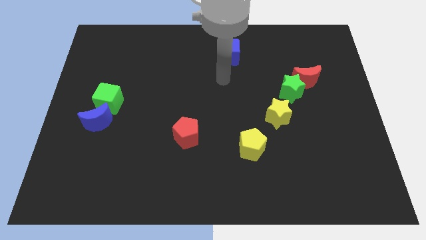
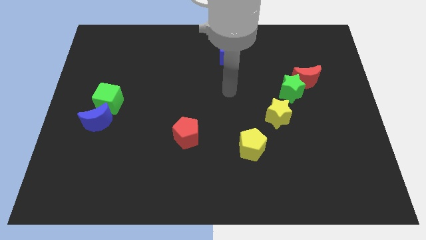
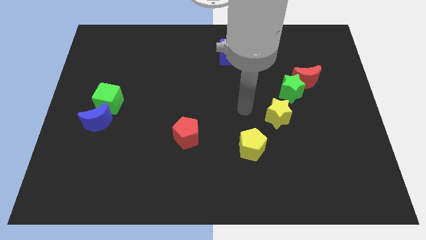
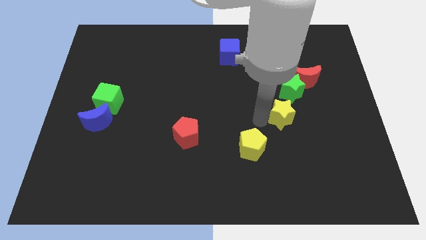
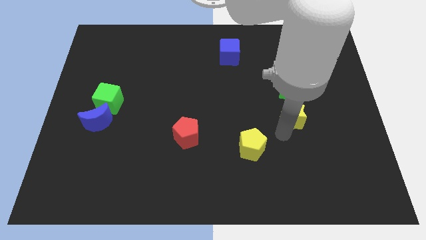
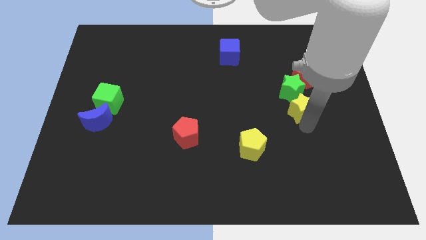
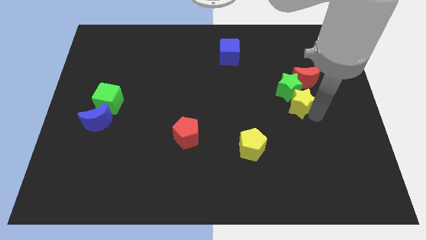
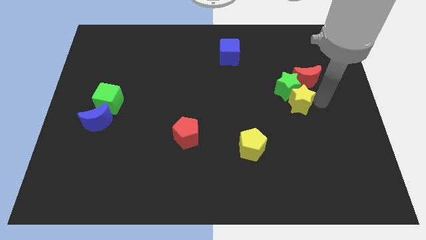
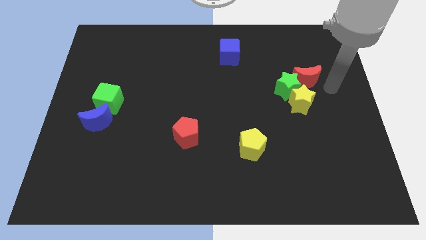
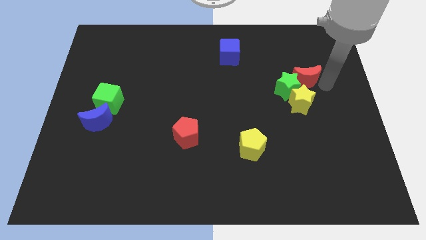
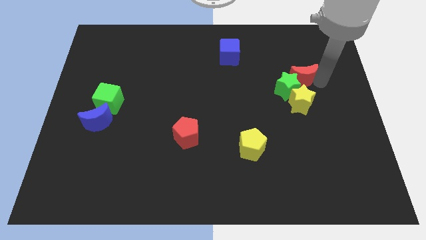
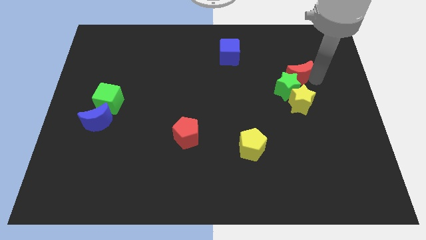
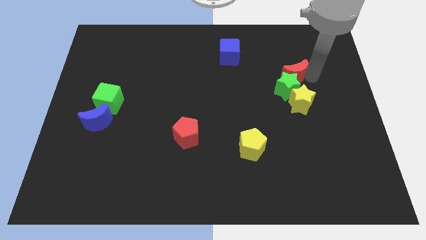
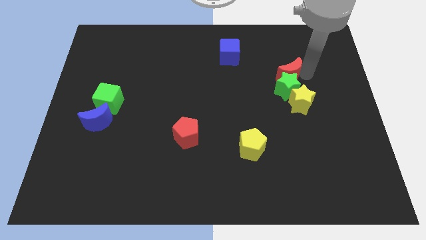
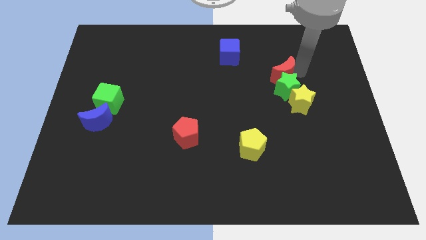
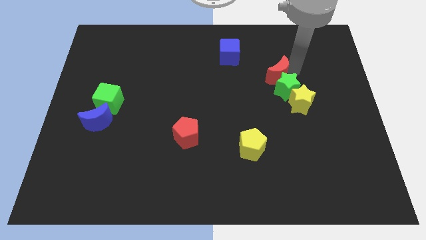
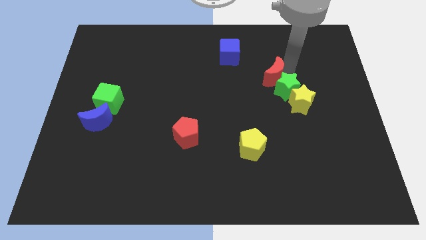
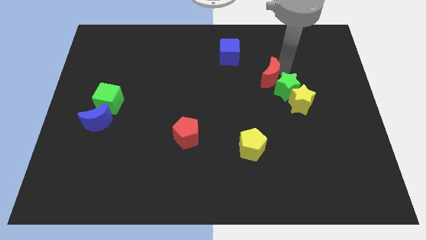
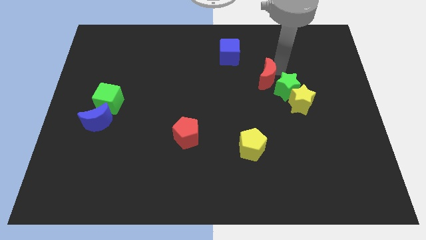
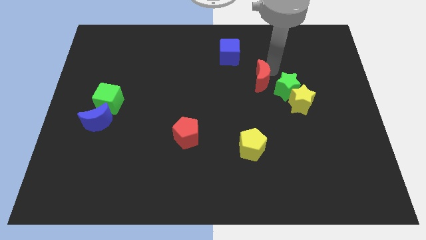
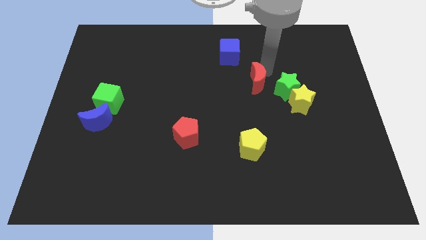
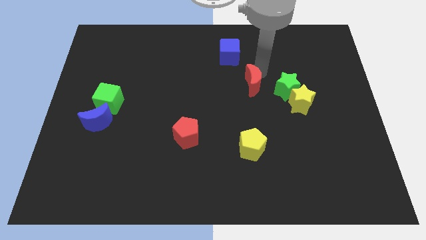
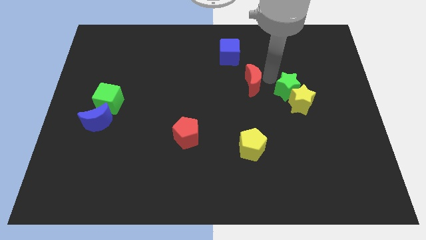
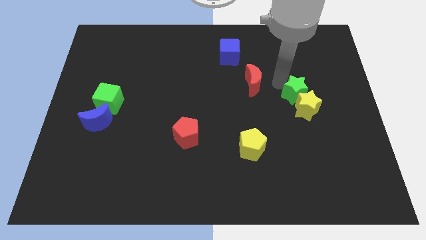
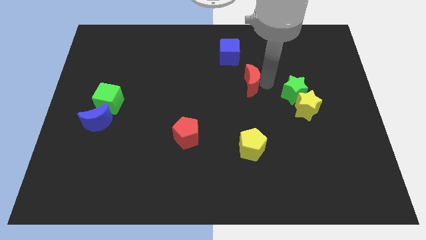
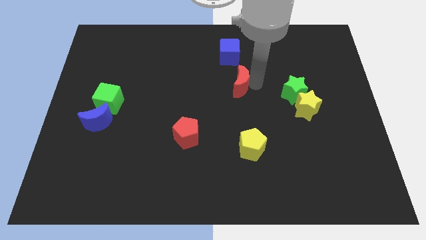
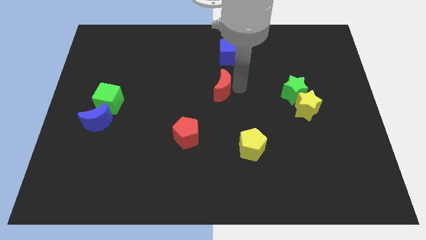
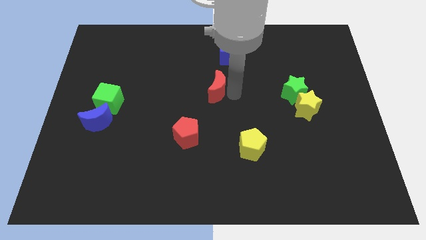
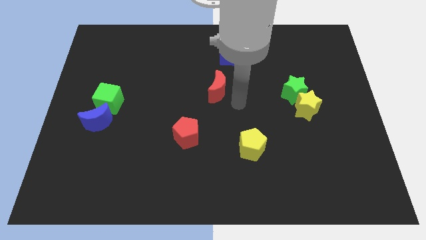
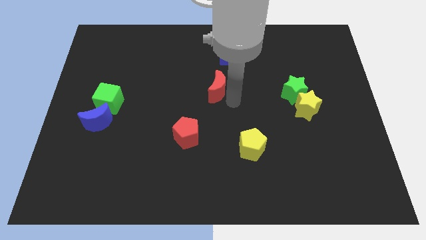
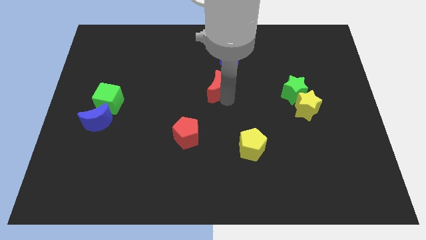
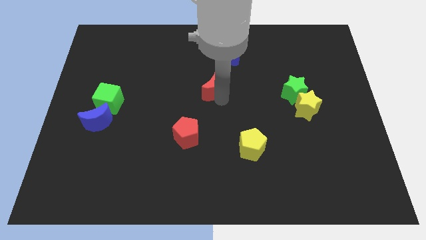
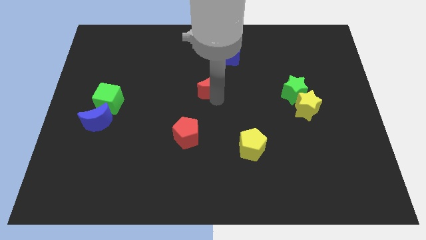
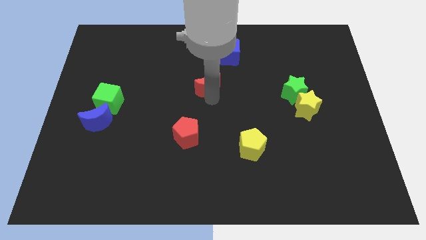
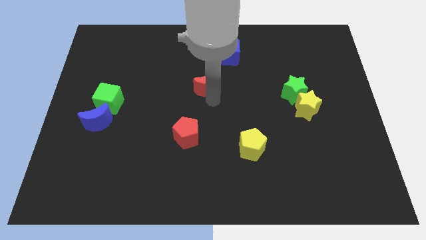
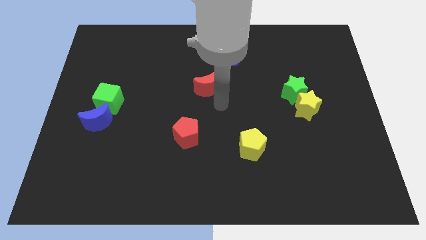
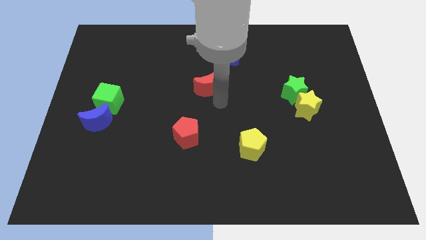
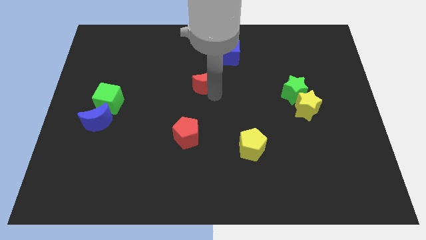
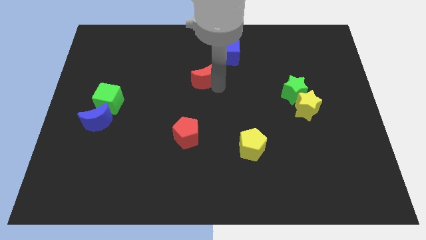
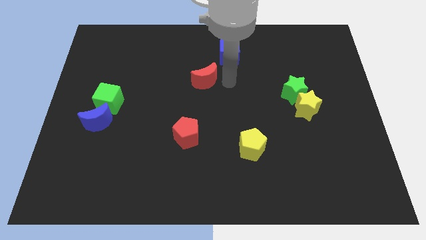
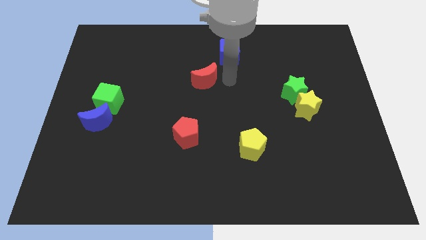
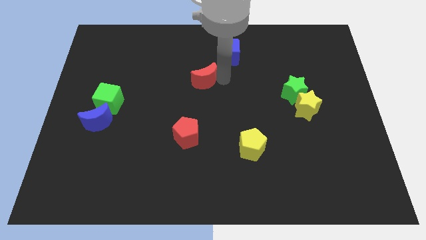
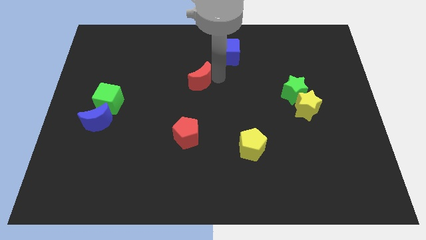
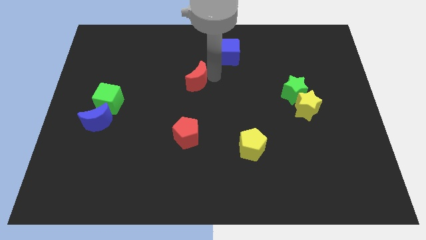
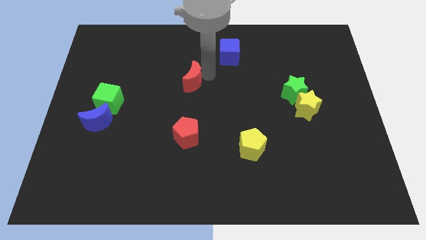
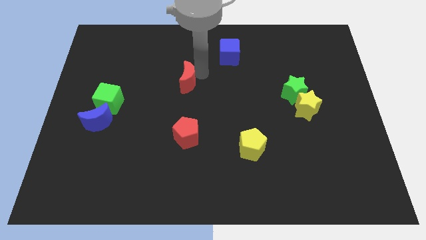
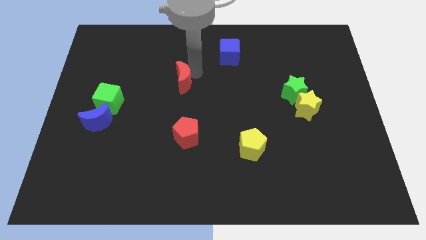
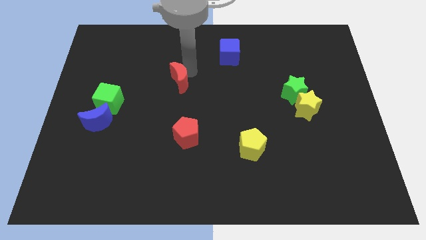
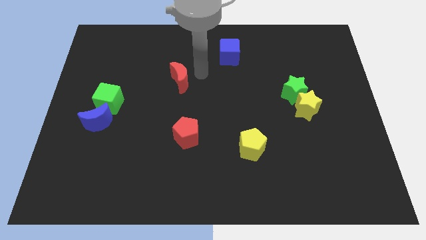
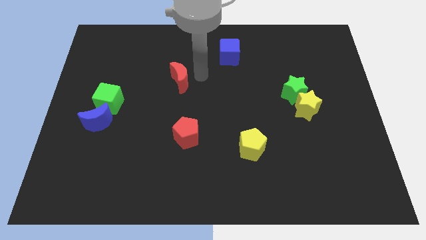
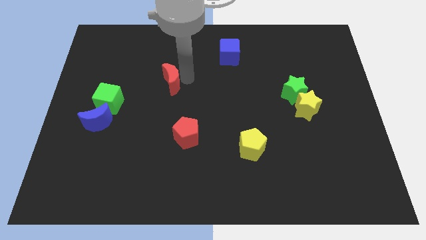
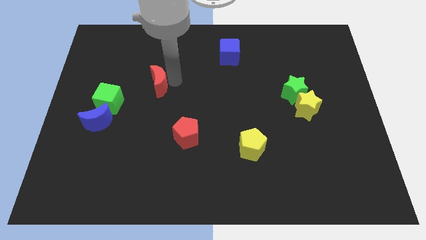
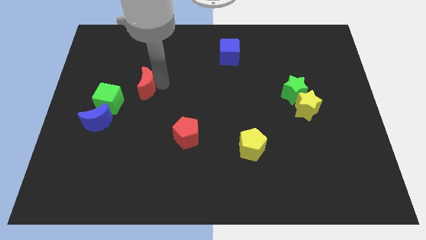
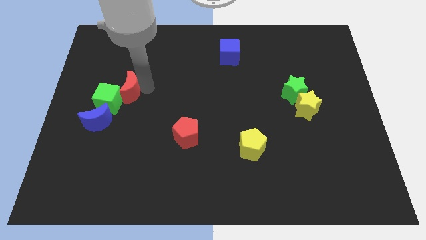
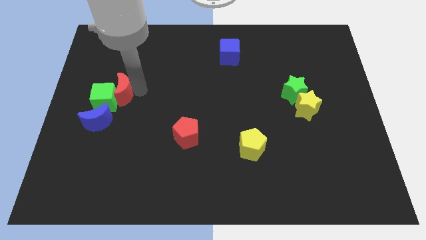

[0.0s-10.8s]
push the red moon above the blue moon

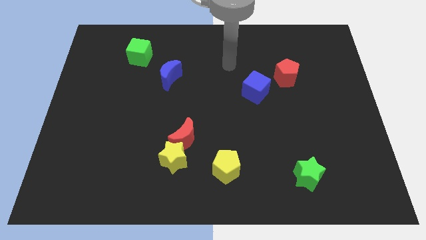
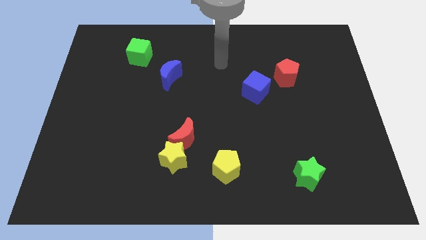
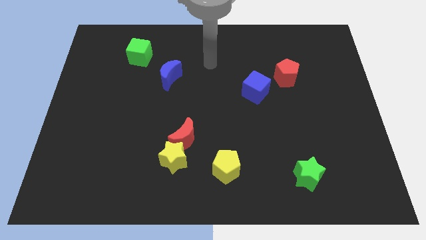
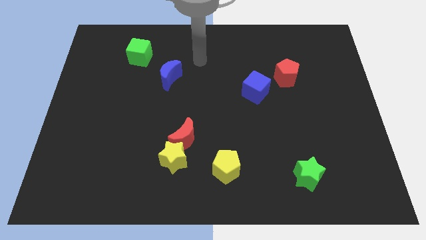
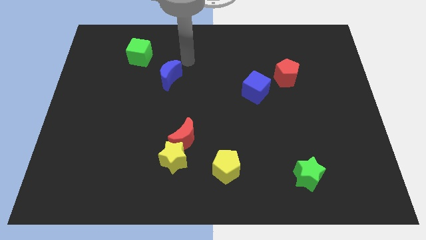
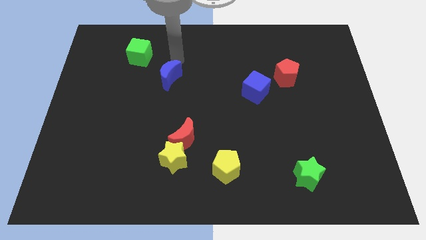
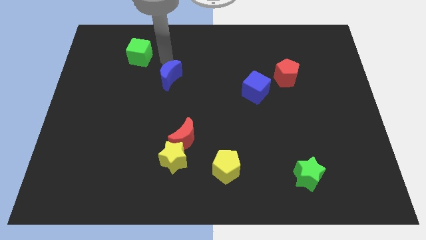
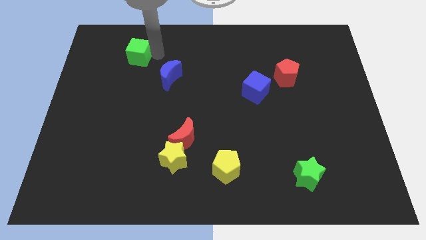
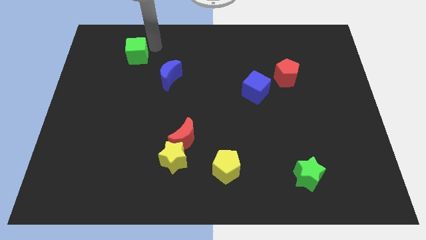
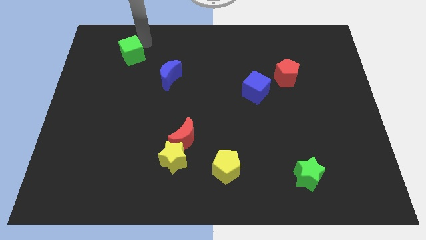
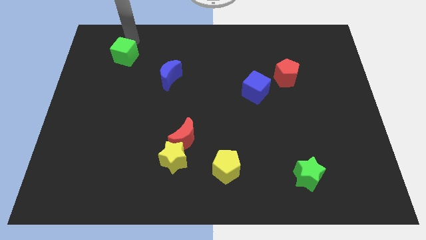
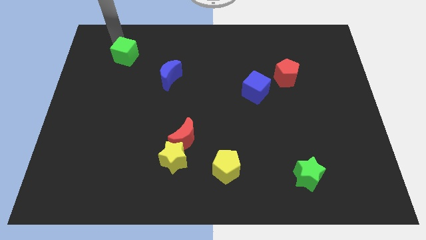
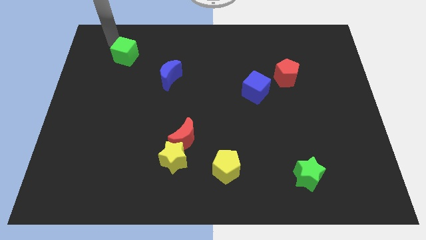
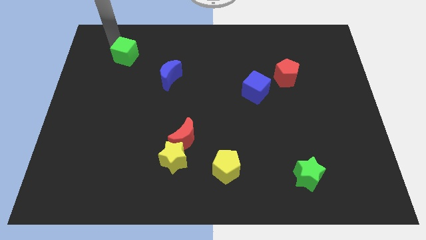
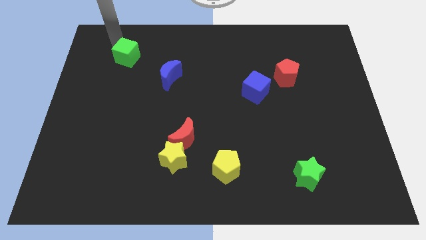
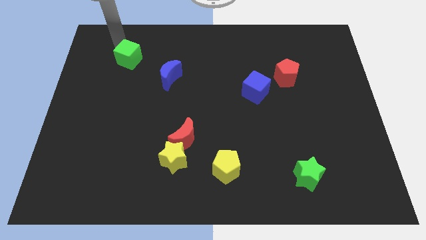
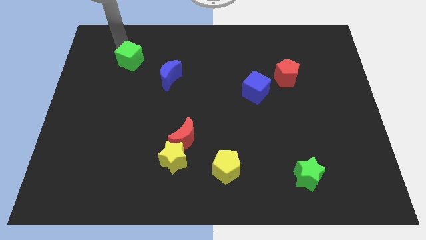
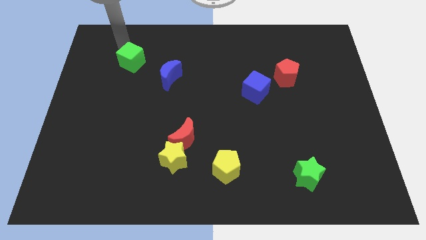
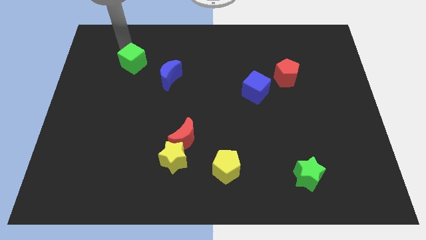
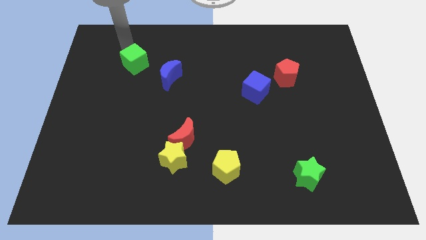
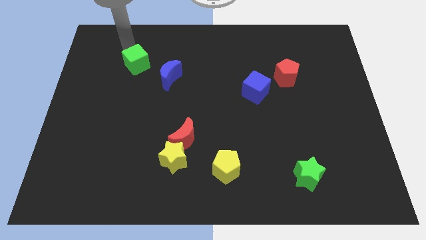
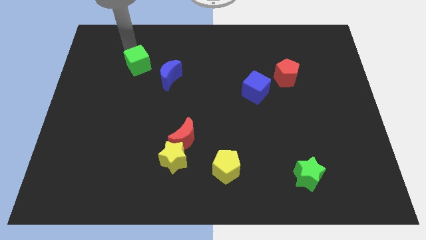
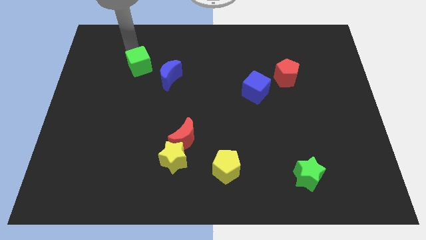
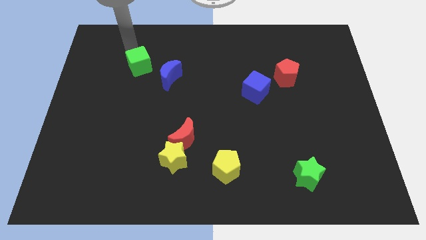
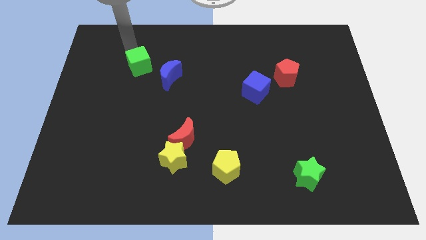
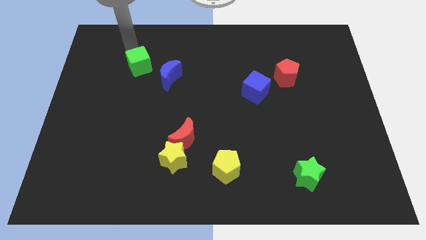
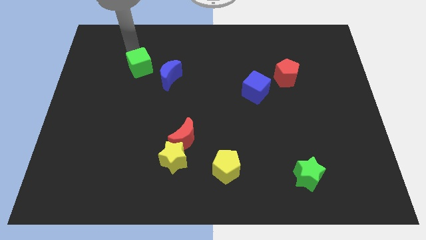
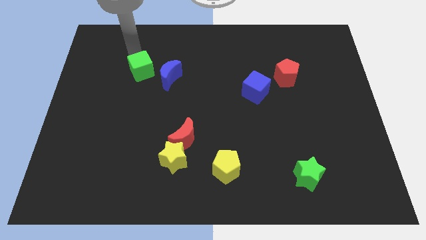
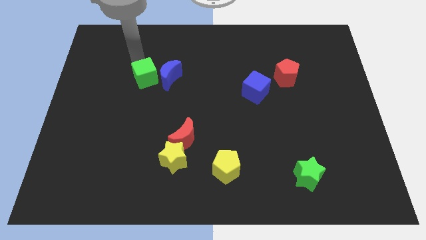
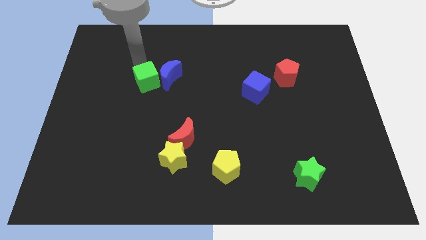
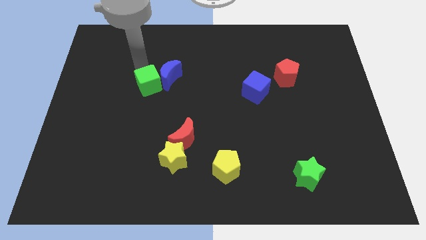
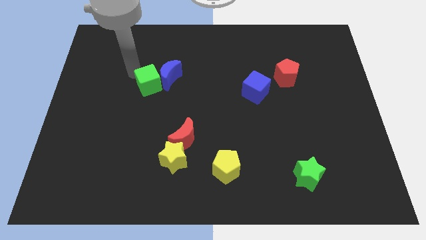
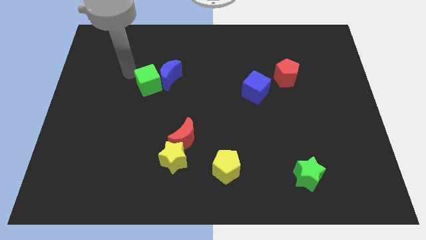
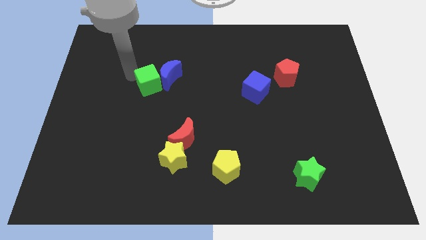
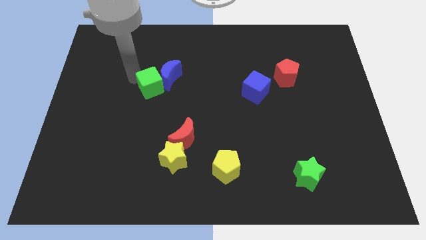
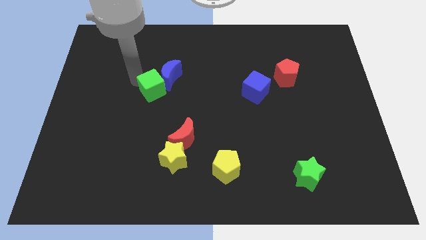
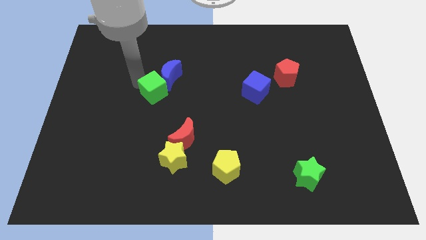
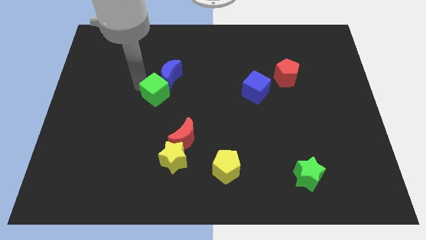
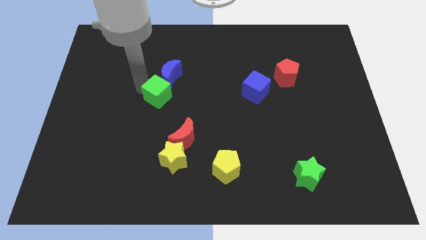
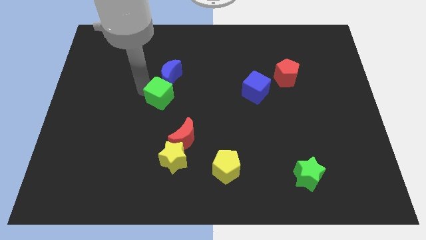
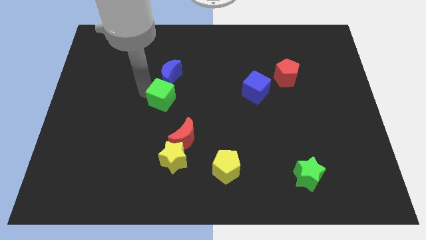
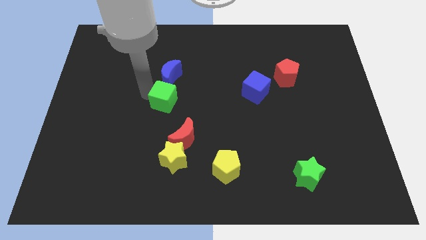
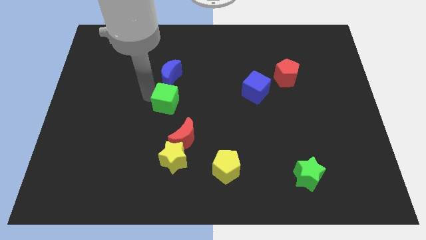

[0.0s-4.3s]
put the green cube above the red moon
